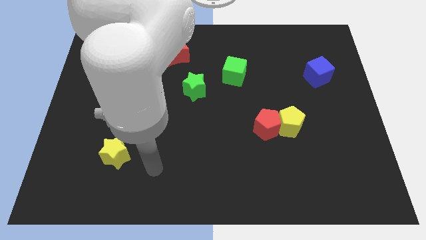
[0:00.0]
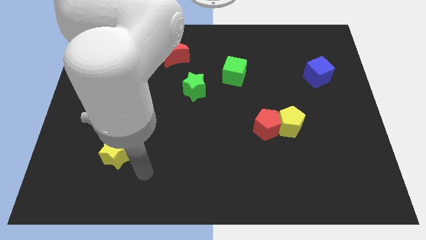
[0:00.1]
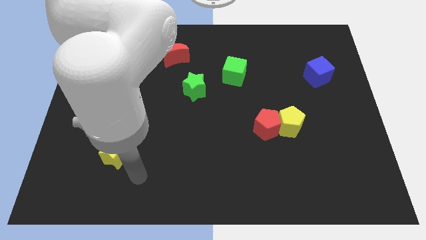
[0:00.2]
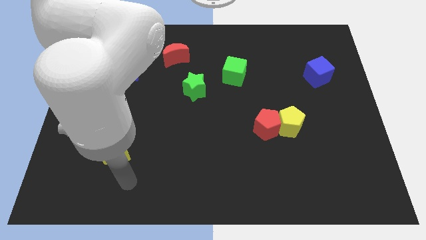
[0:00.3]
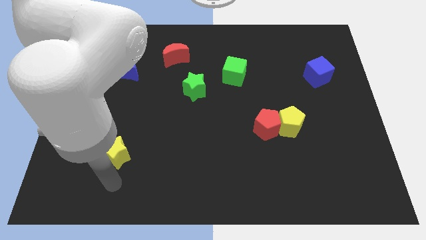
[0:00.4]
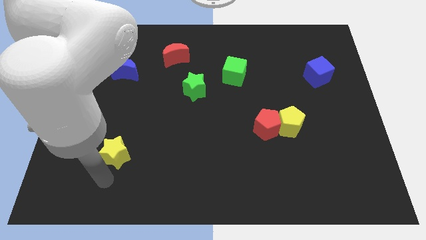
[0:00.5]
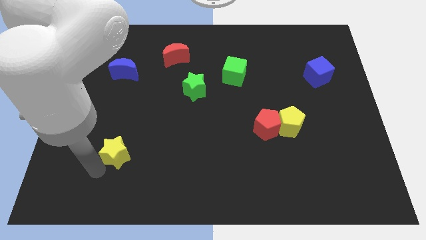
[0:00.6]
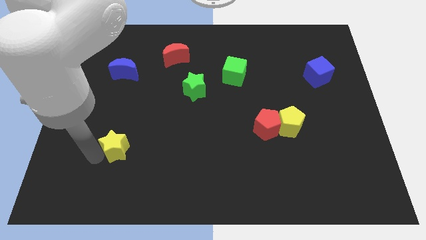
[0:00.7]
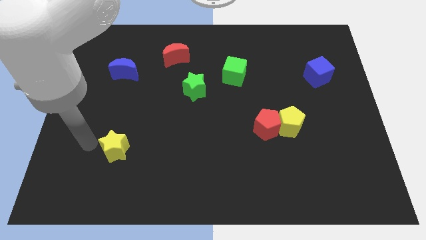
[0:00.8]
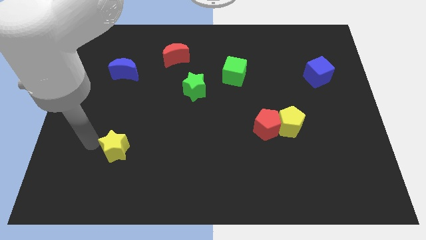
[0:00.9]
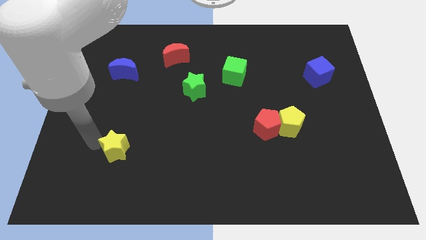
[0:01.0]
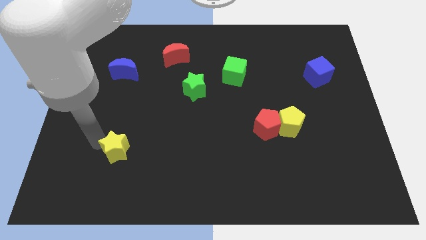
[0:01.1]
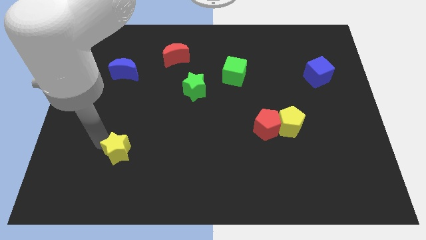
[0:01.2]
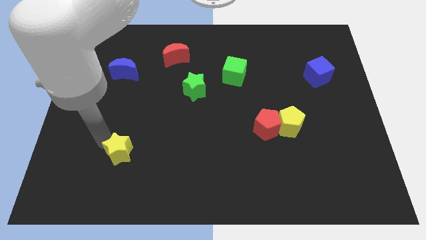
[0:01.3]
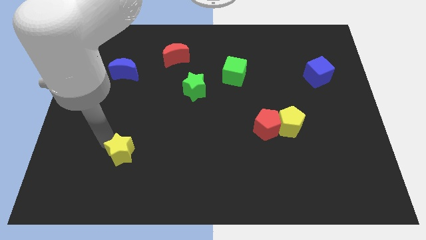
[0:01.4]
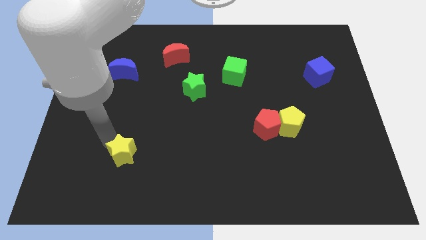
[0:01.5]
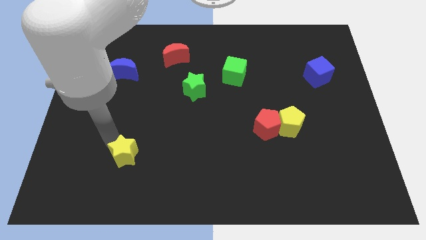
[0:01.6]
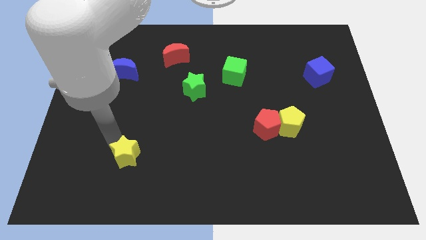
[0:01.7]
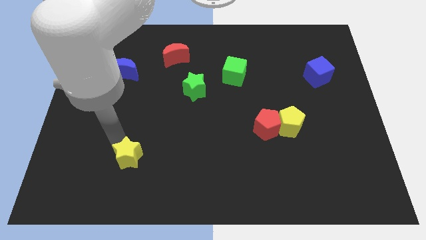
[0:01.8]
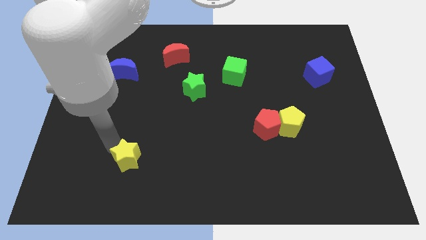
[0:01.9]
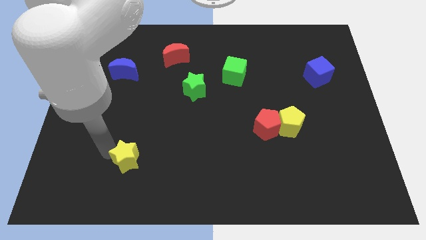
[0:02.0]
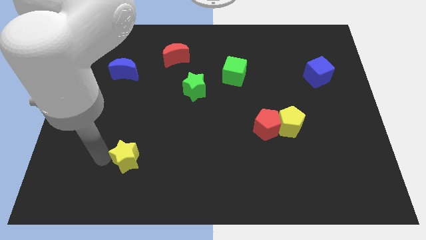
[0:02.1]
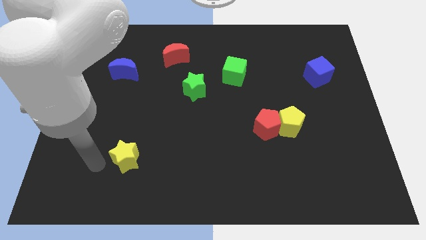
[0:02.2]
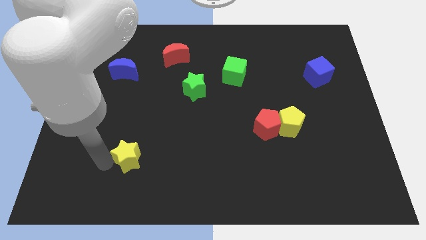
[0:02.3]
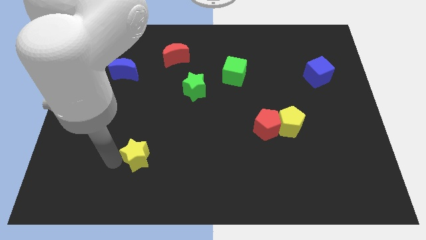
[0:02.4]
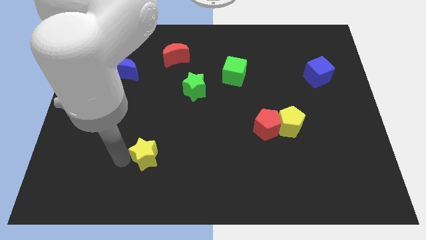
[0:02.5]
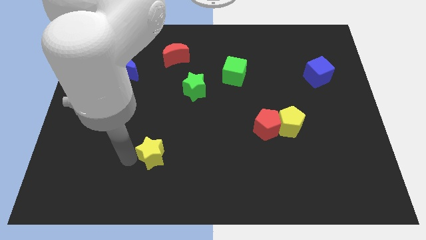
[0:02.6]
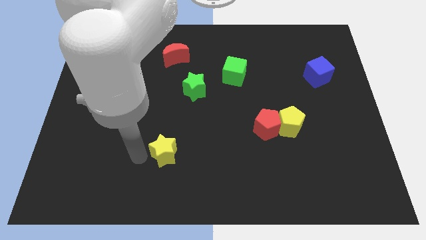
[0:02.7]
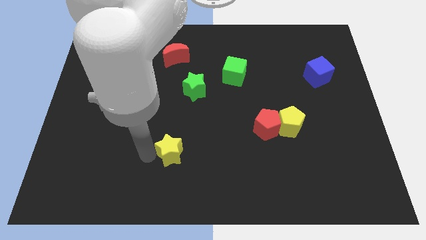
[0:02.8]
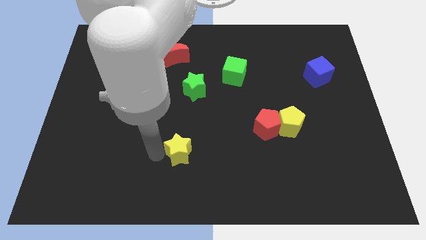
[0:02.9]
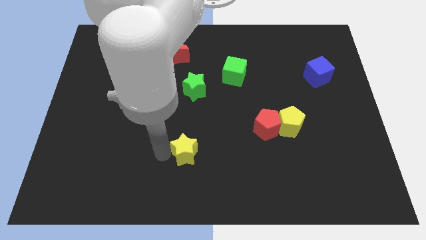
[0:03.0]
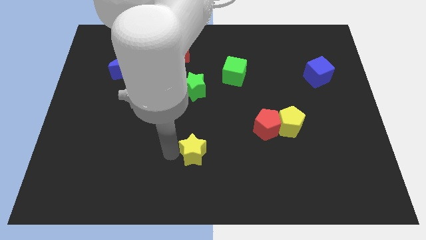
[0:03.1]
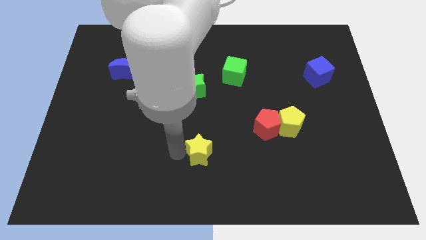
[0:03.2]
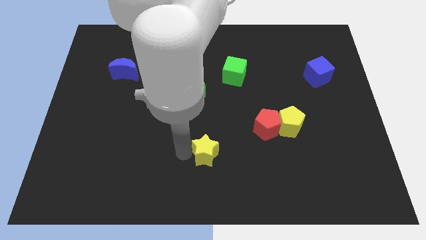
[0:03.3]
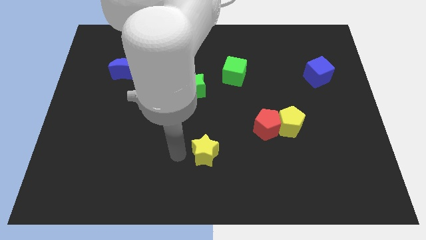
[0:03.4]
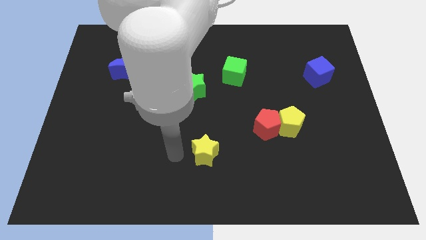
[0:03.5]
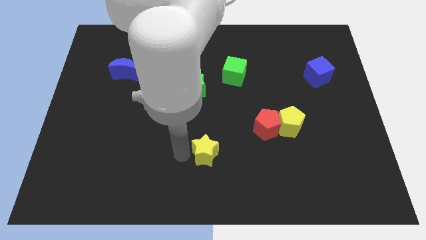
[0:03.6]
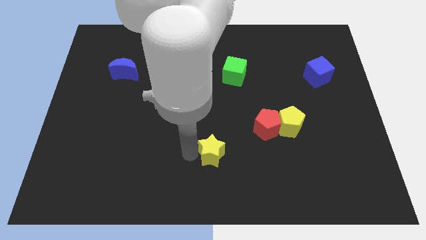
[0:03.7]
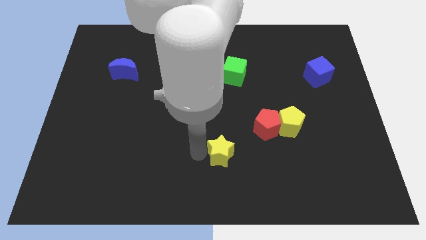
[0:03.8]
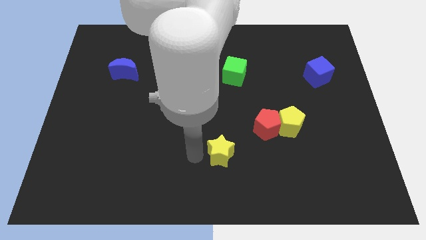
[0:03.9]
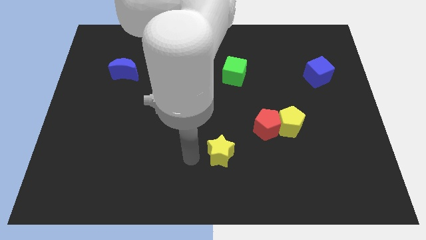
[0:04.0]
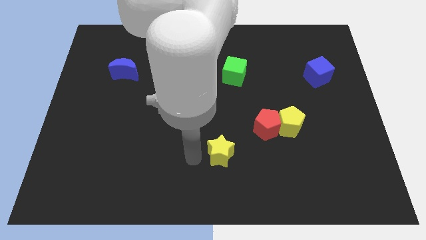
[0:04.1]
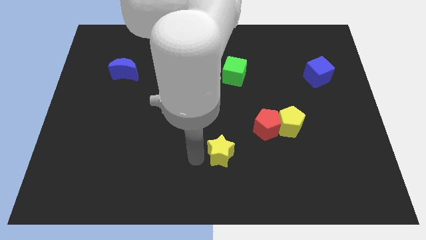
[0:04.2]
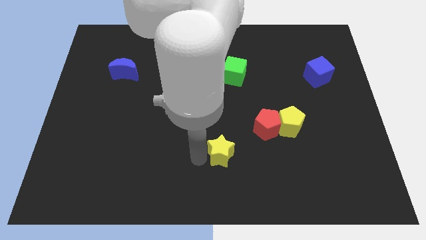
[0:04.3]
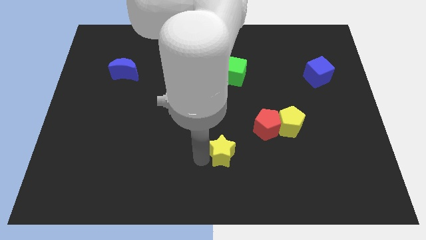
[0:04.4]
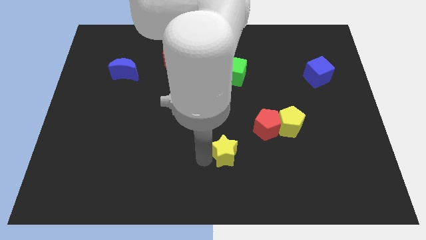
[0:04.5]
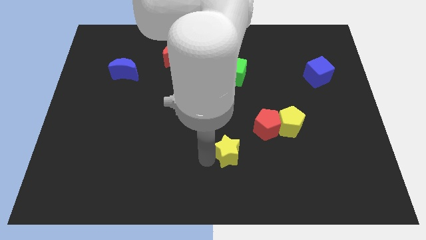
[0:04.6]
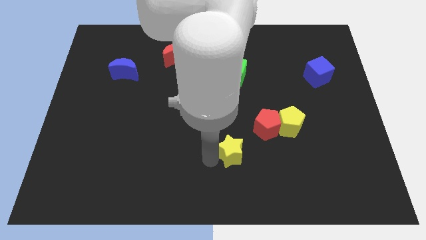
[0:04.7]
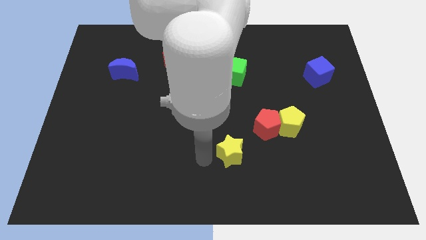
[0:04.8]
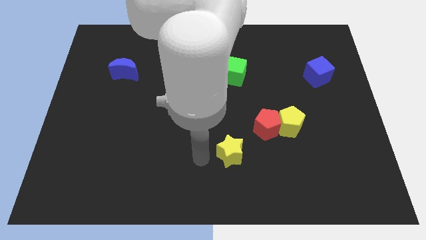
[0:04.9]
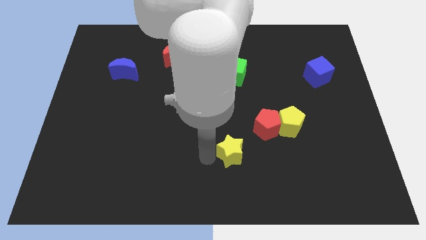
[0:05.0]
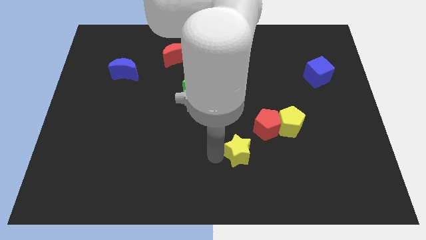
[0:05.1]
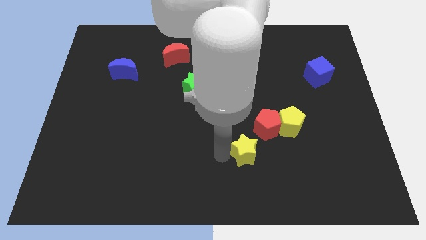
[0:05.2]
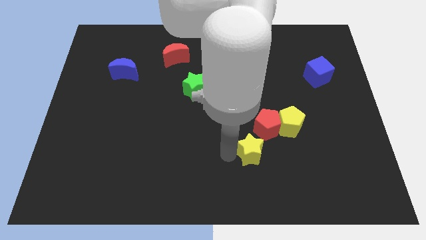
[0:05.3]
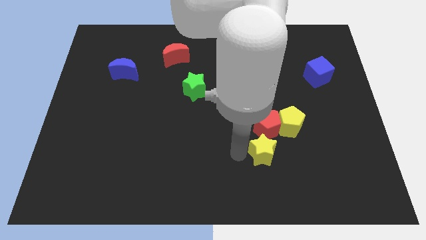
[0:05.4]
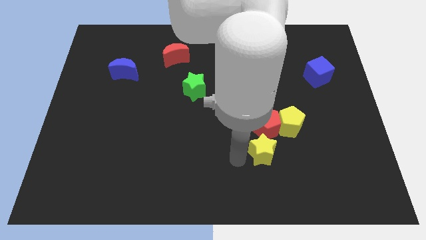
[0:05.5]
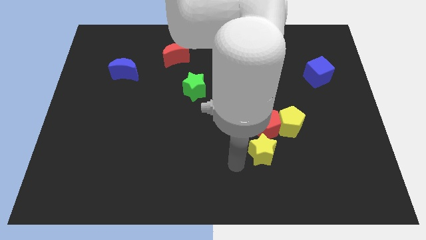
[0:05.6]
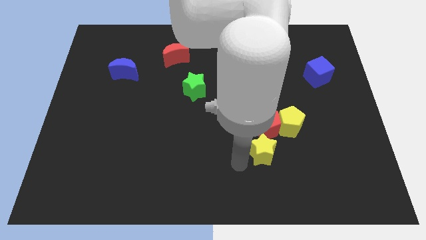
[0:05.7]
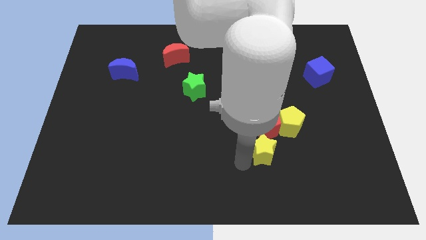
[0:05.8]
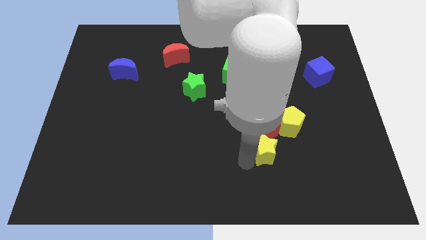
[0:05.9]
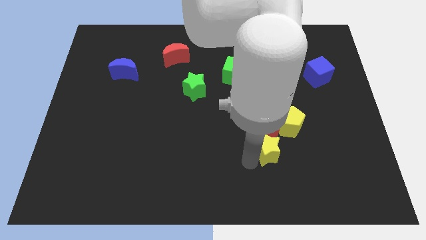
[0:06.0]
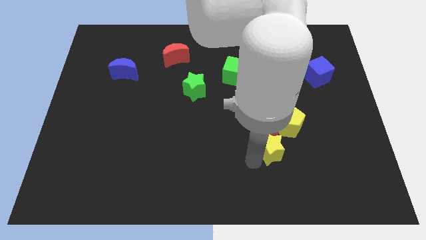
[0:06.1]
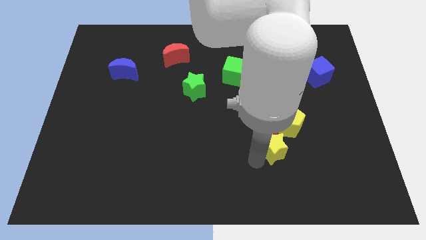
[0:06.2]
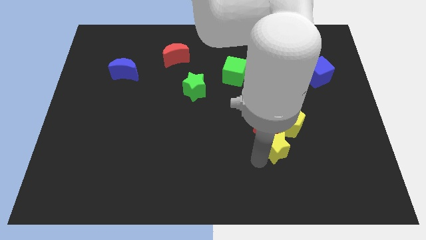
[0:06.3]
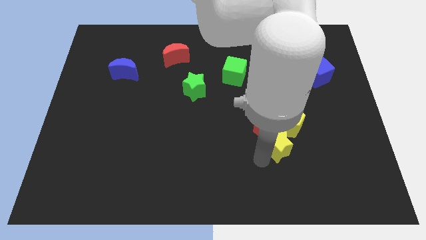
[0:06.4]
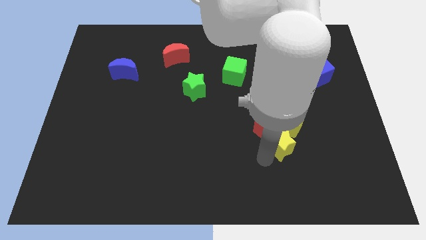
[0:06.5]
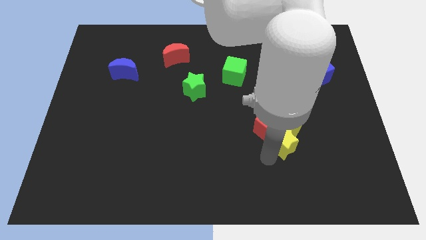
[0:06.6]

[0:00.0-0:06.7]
put the yellow star to the yellow pentagon

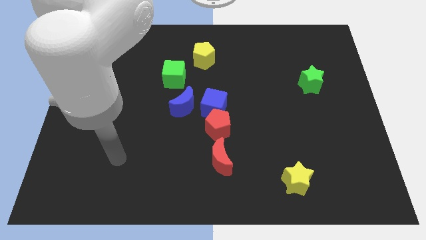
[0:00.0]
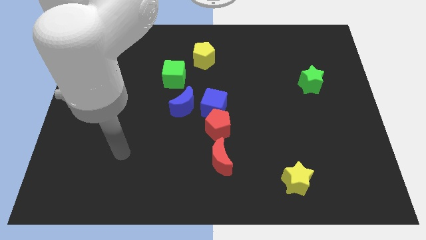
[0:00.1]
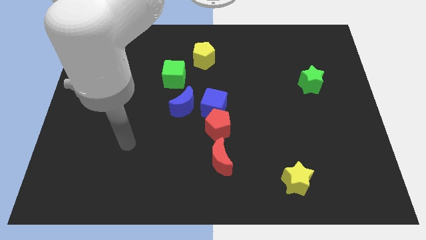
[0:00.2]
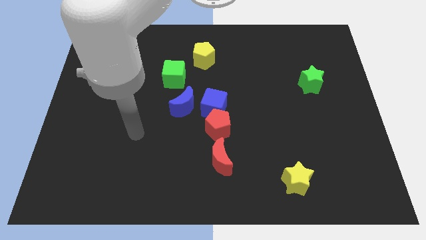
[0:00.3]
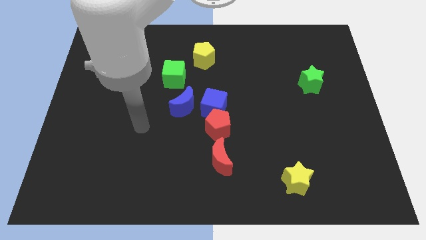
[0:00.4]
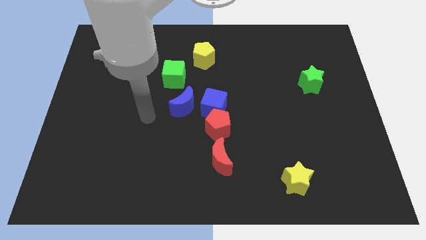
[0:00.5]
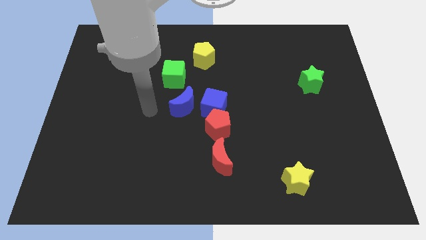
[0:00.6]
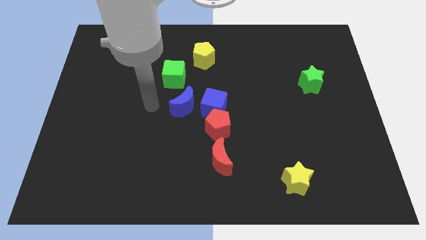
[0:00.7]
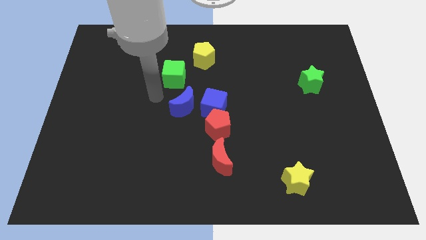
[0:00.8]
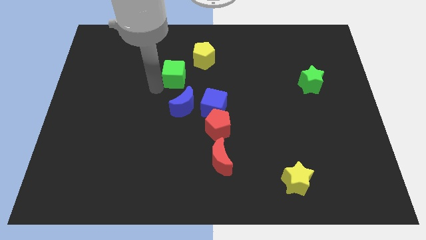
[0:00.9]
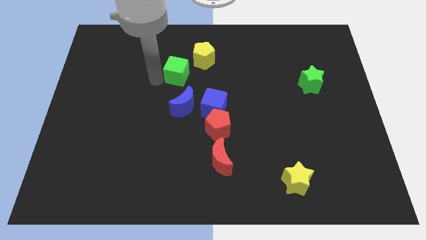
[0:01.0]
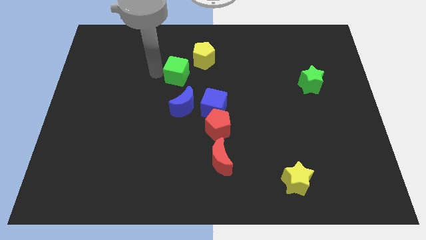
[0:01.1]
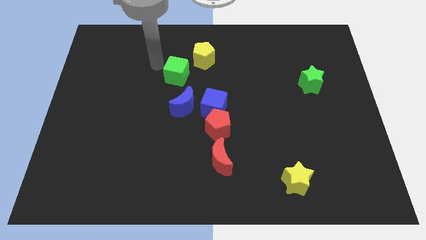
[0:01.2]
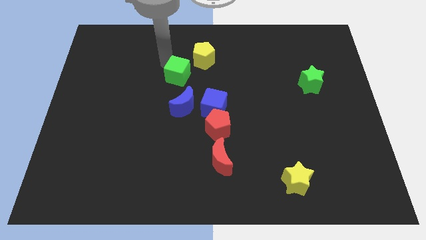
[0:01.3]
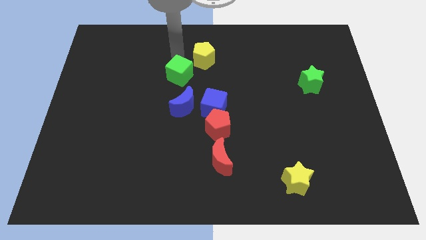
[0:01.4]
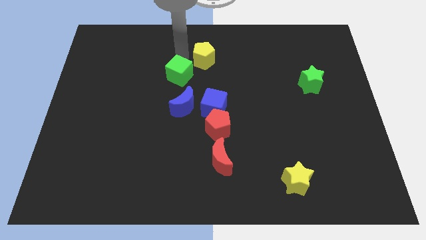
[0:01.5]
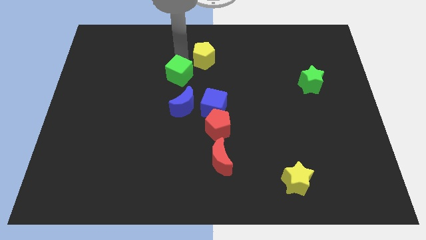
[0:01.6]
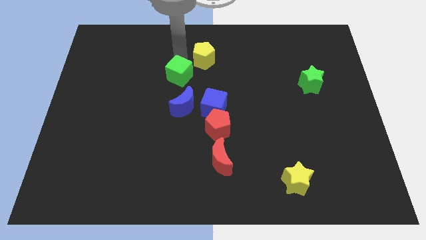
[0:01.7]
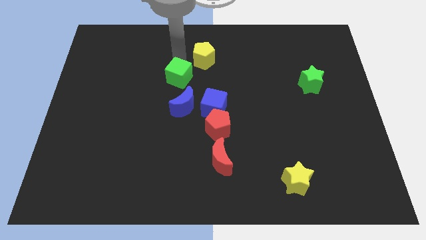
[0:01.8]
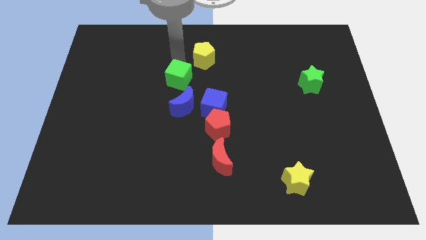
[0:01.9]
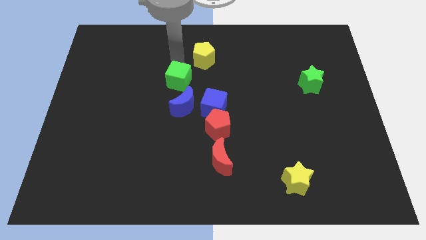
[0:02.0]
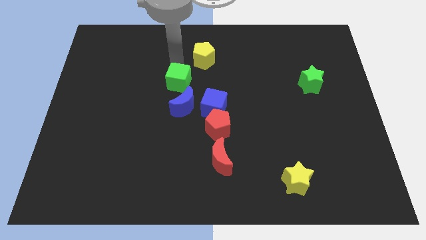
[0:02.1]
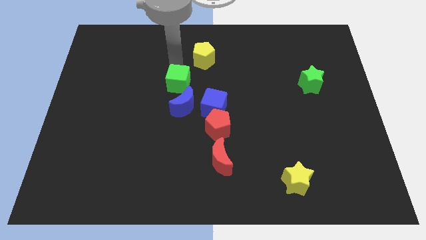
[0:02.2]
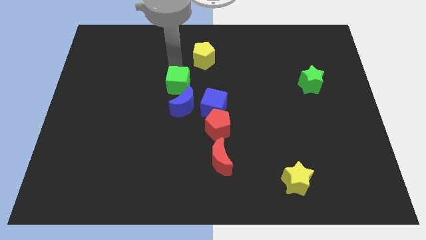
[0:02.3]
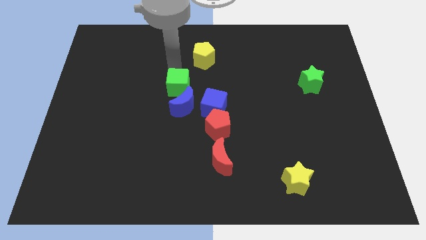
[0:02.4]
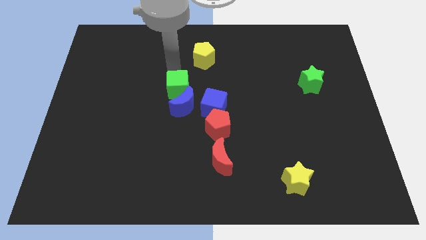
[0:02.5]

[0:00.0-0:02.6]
push the green cube towards the blue moon
